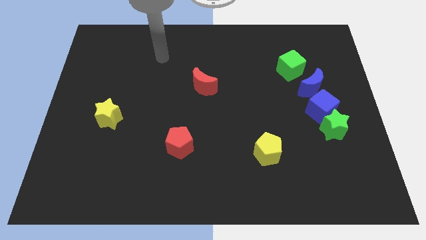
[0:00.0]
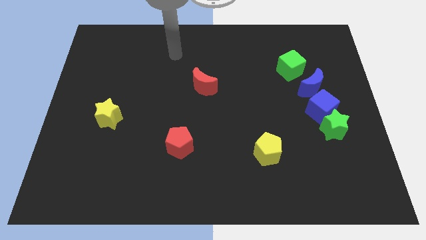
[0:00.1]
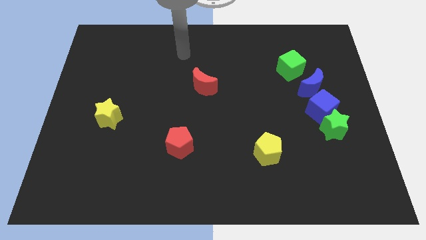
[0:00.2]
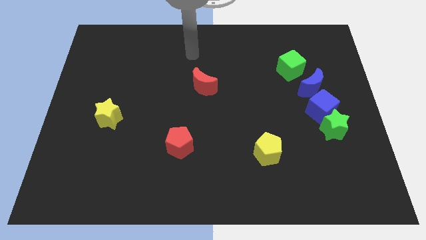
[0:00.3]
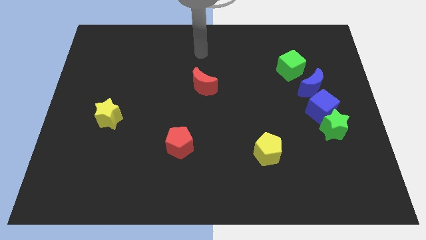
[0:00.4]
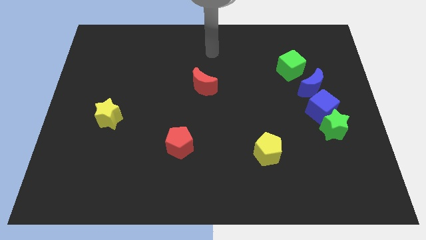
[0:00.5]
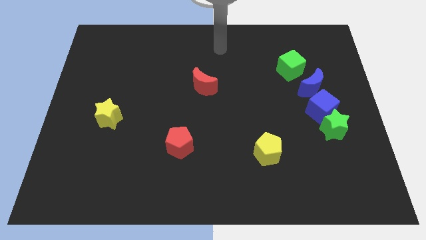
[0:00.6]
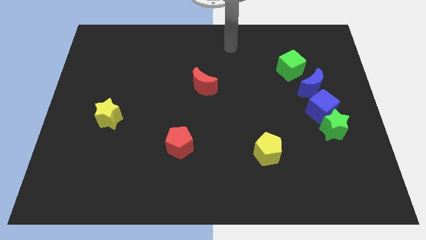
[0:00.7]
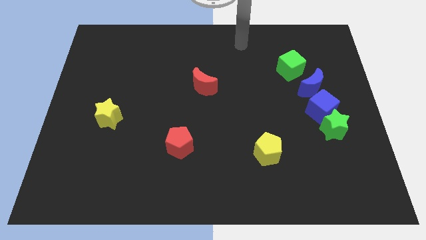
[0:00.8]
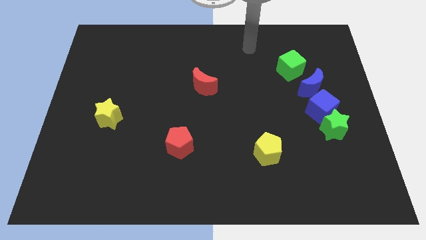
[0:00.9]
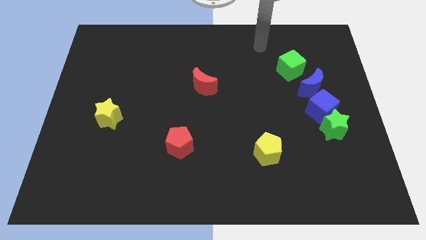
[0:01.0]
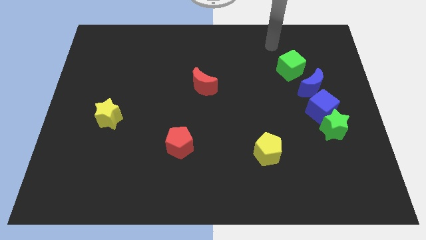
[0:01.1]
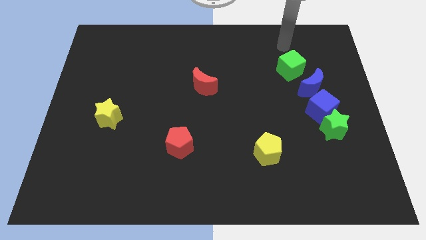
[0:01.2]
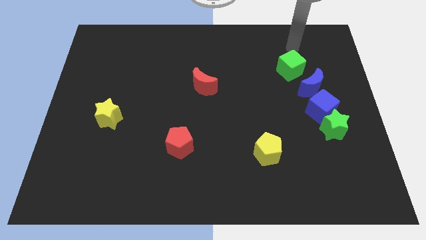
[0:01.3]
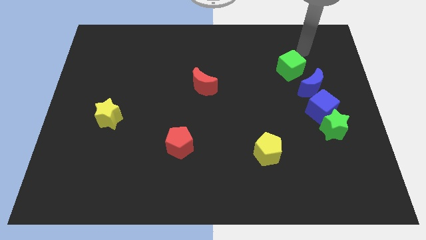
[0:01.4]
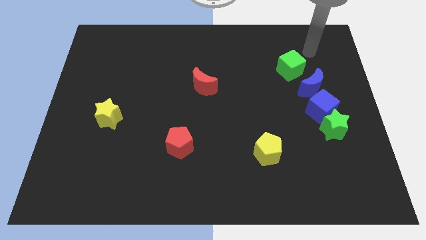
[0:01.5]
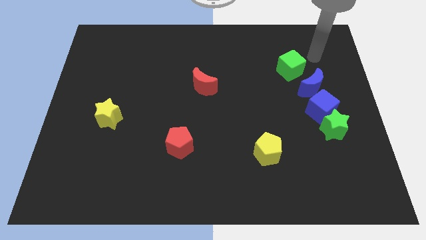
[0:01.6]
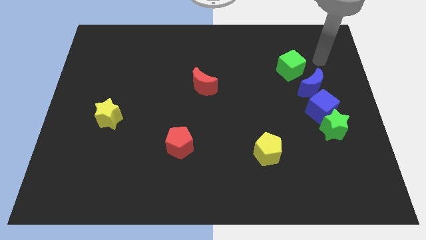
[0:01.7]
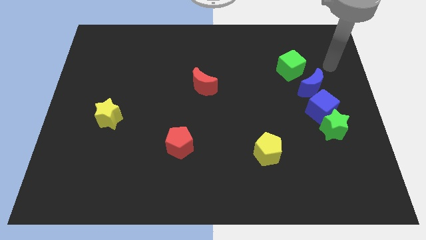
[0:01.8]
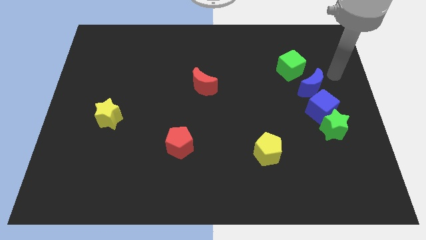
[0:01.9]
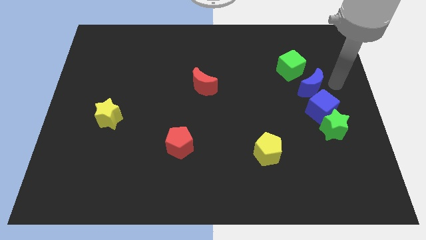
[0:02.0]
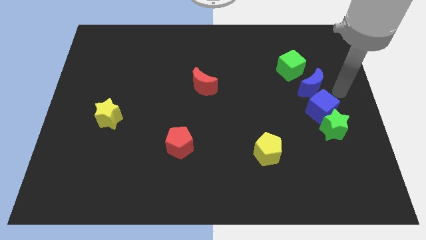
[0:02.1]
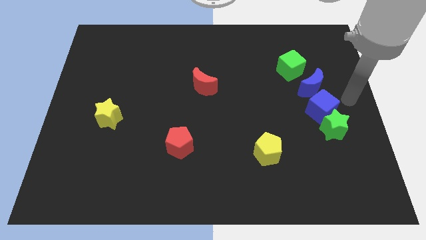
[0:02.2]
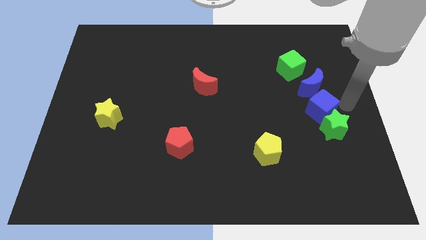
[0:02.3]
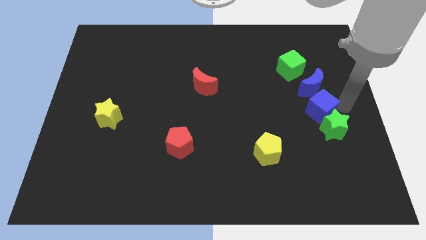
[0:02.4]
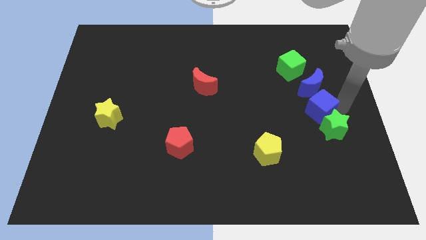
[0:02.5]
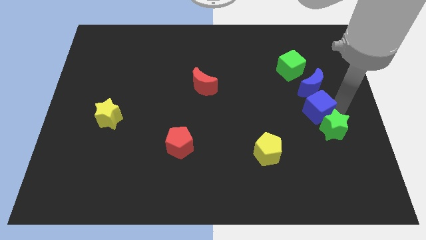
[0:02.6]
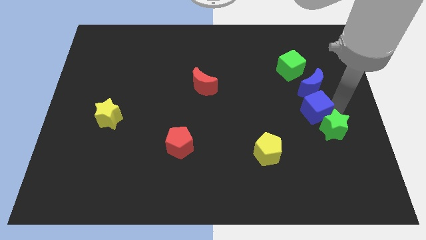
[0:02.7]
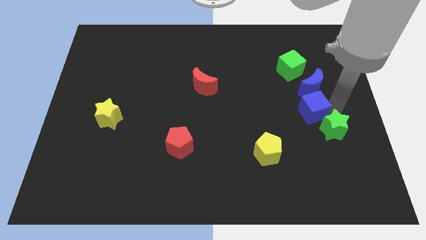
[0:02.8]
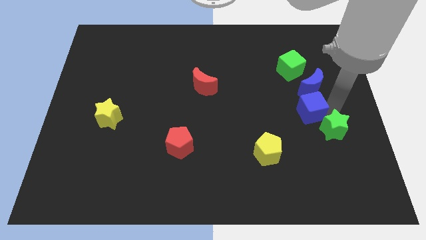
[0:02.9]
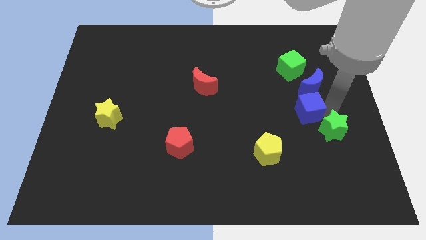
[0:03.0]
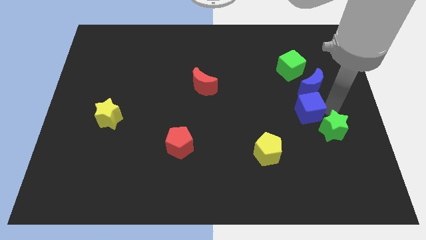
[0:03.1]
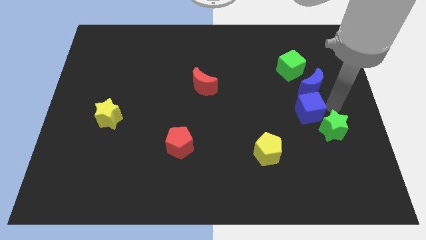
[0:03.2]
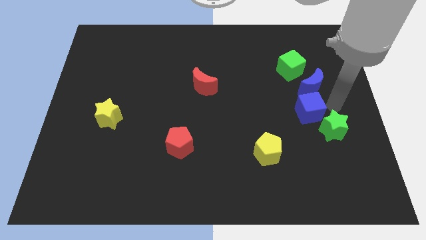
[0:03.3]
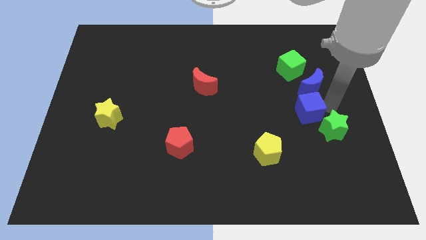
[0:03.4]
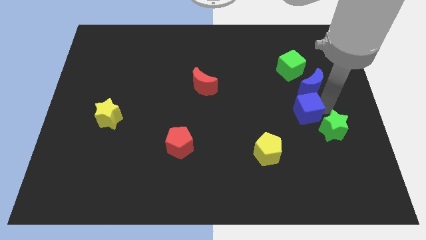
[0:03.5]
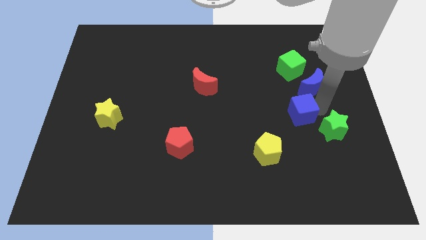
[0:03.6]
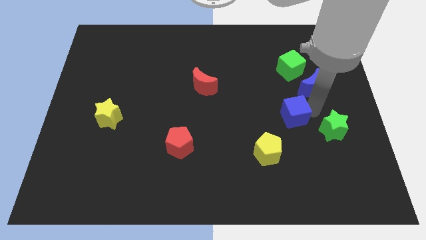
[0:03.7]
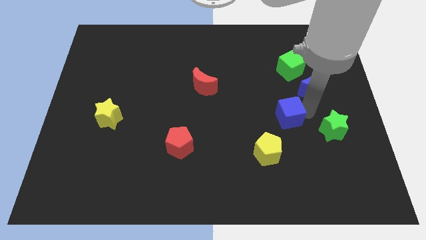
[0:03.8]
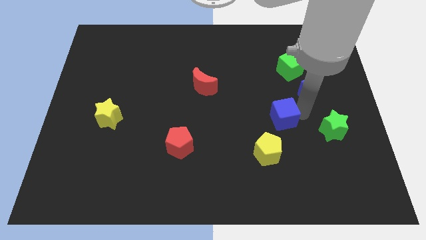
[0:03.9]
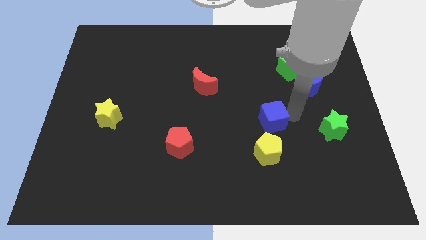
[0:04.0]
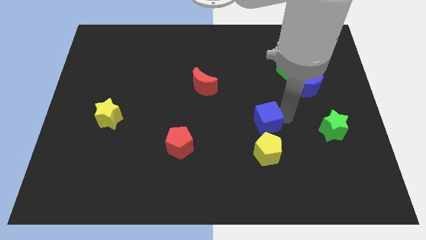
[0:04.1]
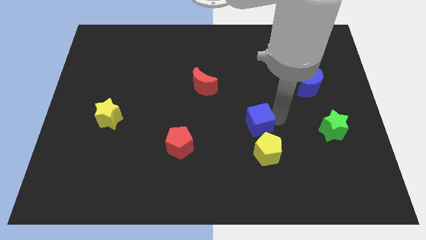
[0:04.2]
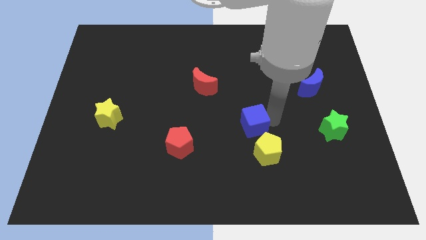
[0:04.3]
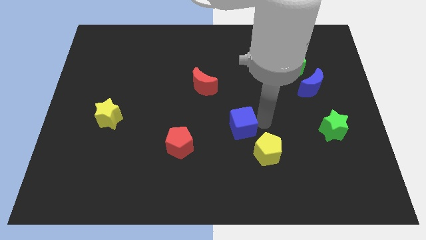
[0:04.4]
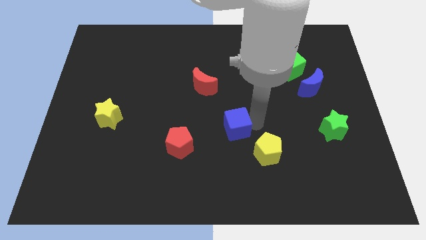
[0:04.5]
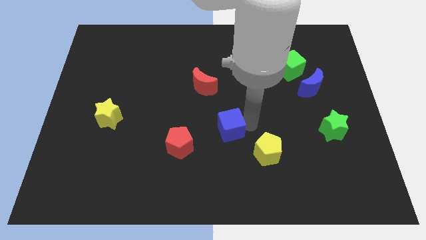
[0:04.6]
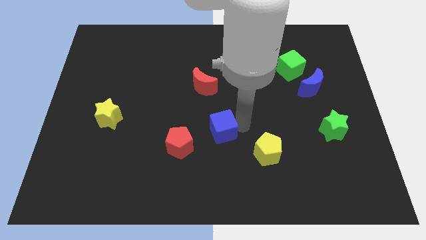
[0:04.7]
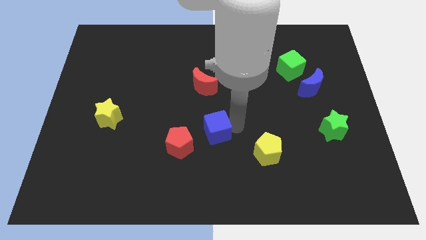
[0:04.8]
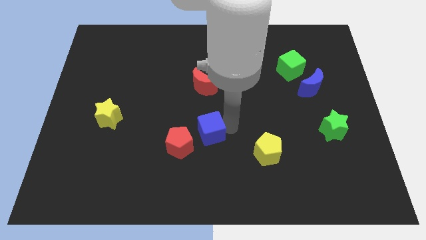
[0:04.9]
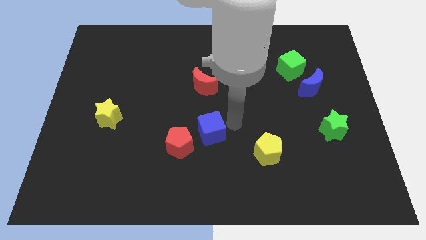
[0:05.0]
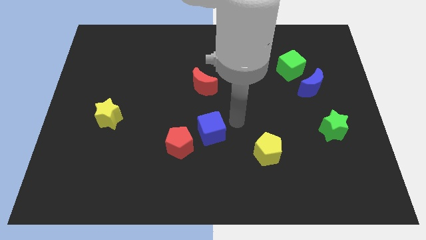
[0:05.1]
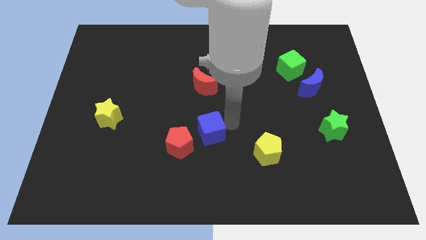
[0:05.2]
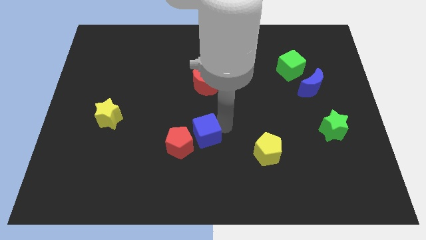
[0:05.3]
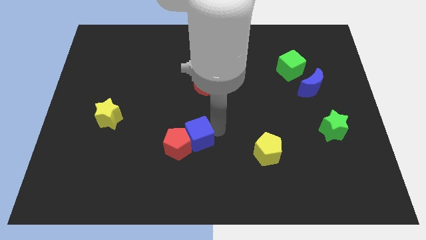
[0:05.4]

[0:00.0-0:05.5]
slide the blue cube towards the red pentagon

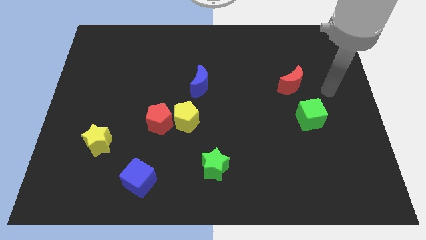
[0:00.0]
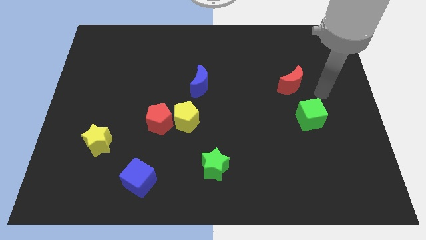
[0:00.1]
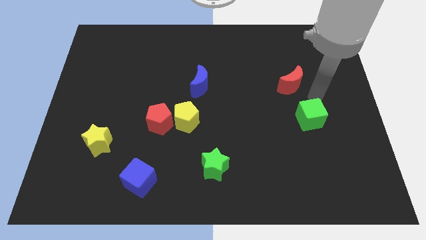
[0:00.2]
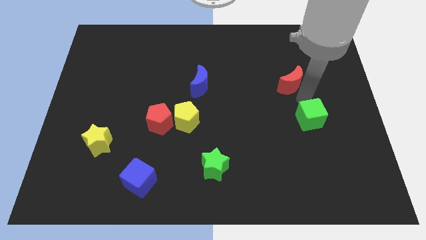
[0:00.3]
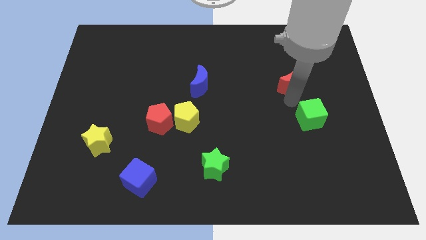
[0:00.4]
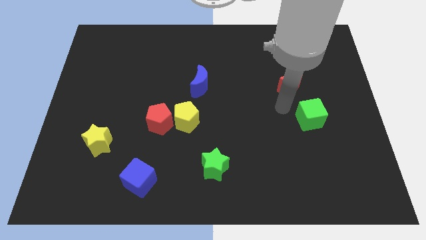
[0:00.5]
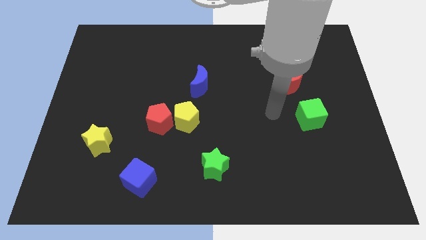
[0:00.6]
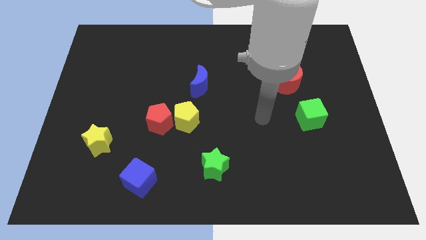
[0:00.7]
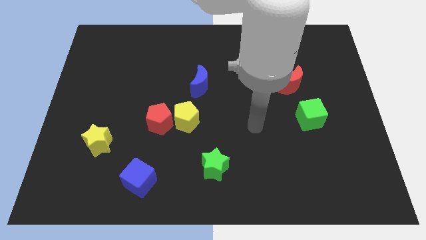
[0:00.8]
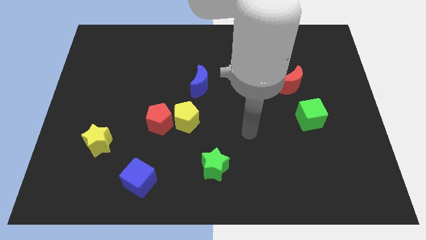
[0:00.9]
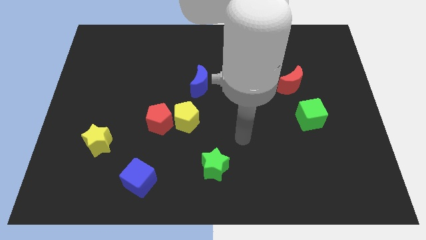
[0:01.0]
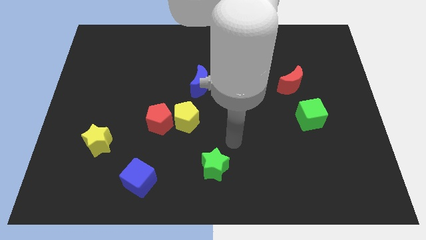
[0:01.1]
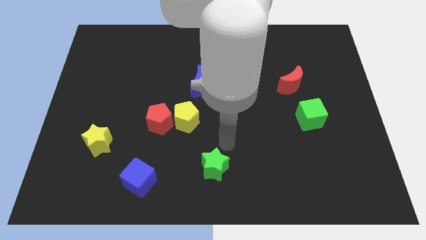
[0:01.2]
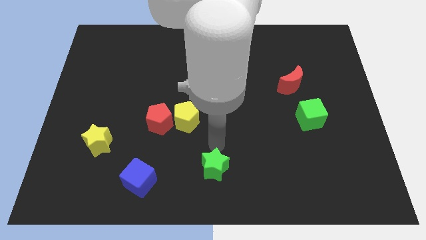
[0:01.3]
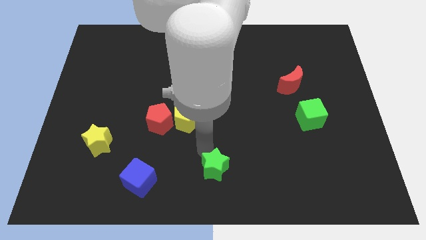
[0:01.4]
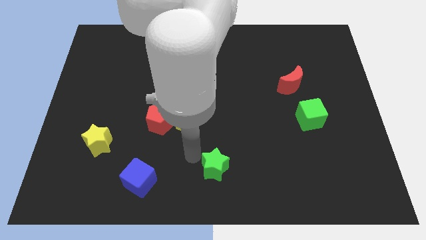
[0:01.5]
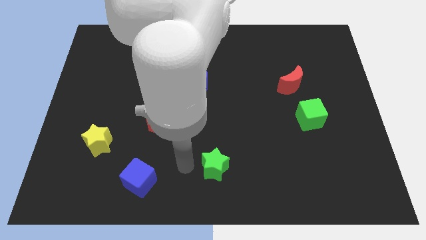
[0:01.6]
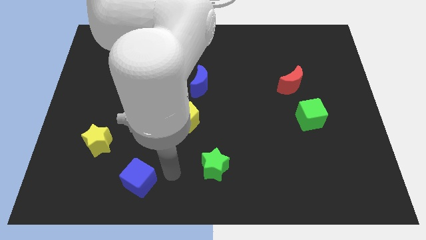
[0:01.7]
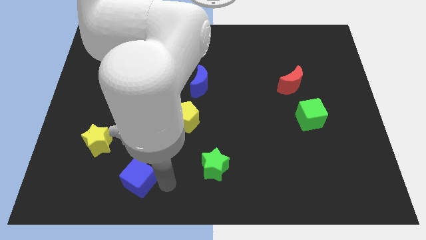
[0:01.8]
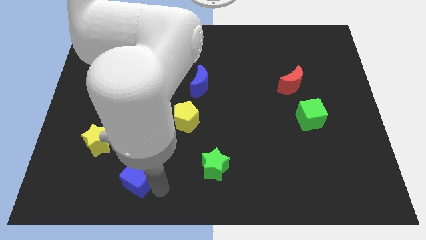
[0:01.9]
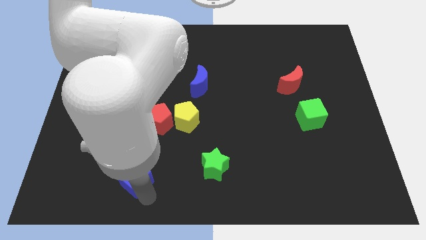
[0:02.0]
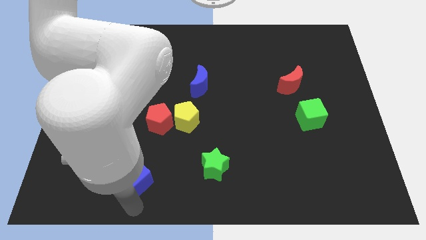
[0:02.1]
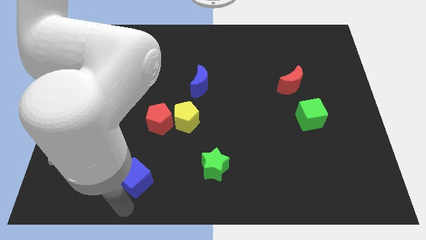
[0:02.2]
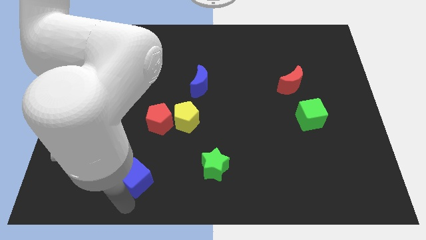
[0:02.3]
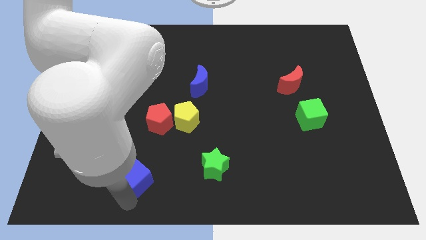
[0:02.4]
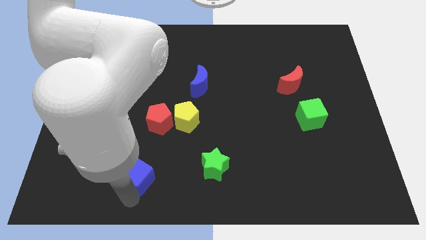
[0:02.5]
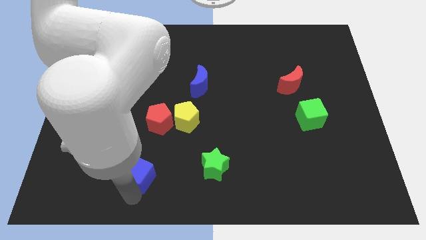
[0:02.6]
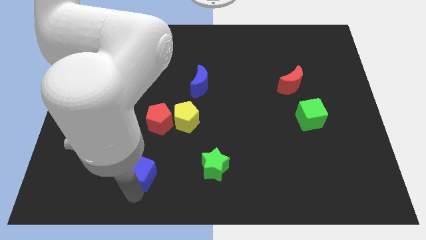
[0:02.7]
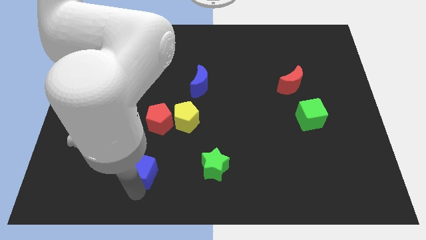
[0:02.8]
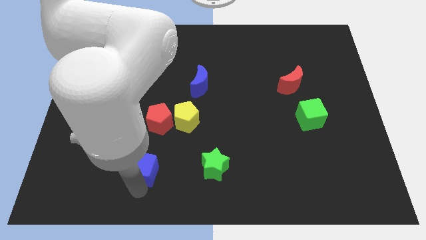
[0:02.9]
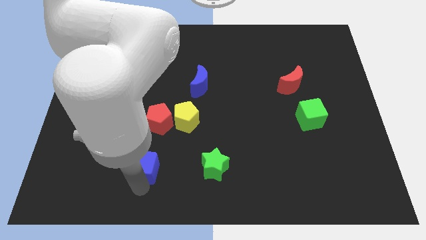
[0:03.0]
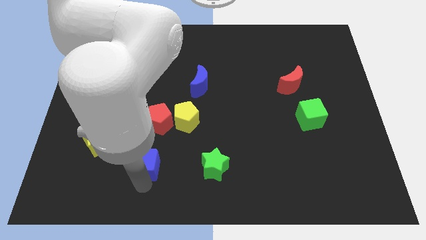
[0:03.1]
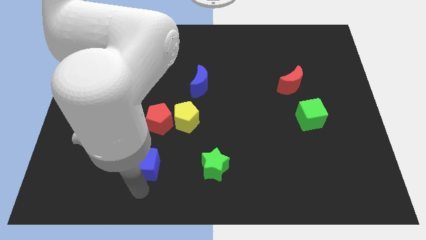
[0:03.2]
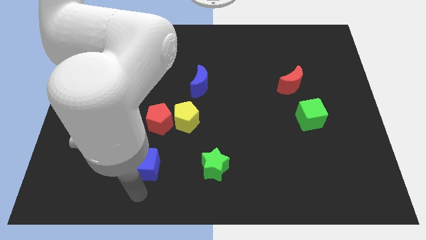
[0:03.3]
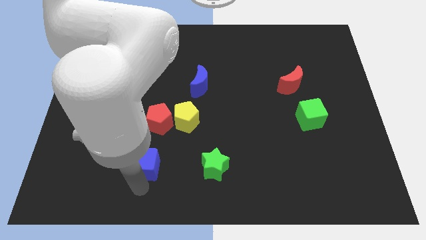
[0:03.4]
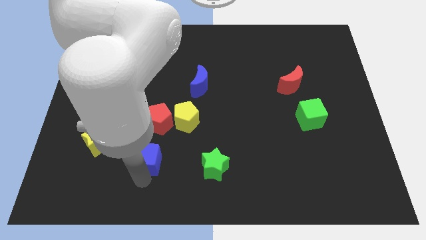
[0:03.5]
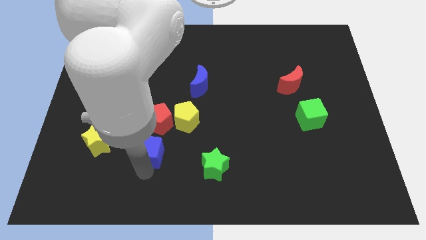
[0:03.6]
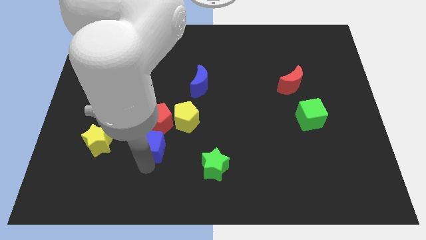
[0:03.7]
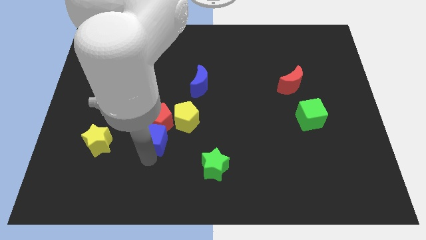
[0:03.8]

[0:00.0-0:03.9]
put the blue cube close to the red pentagon
